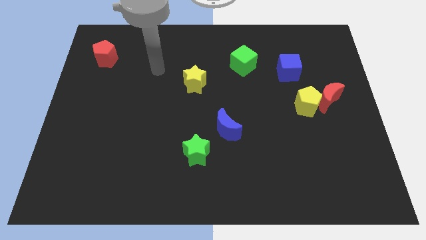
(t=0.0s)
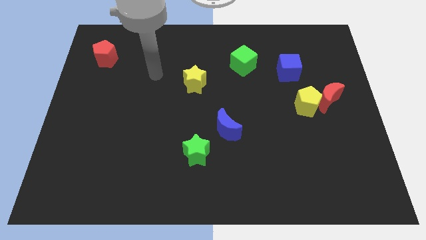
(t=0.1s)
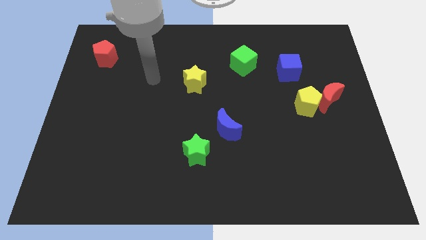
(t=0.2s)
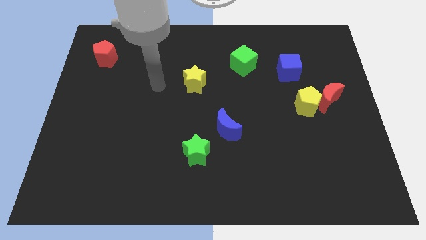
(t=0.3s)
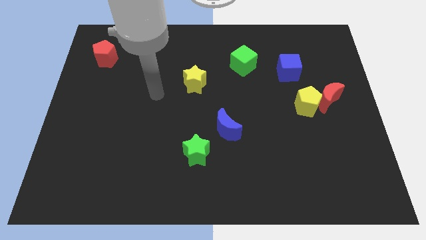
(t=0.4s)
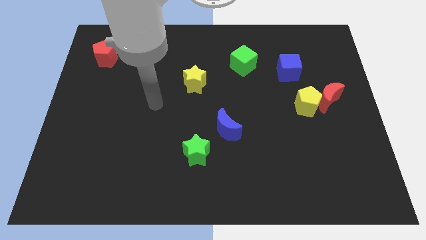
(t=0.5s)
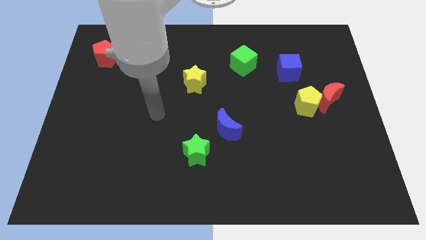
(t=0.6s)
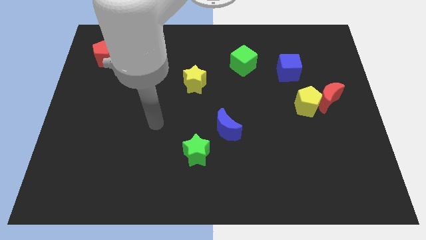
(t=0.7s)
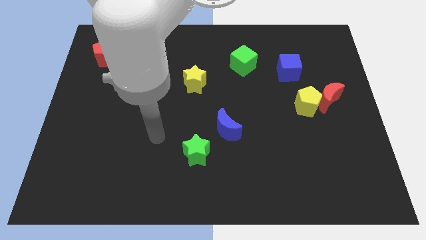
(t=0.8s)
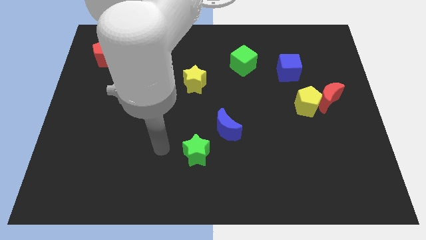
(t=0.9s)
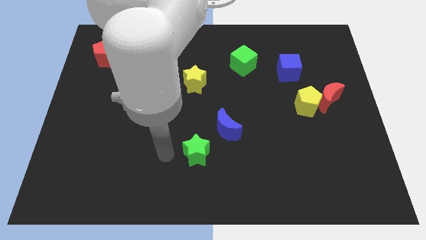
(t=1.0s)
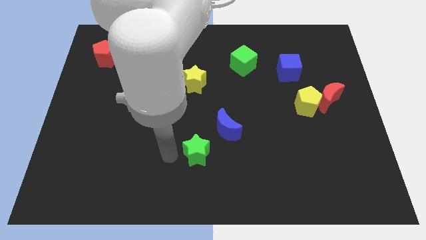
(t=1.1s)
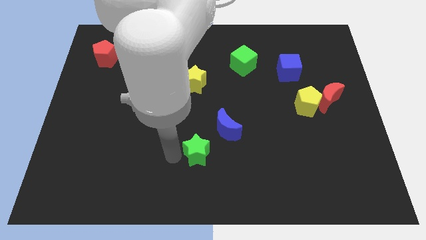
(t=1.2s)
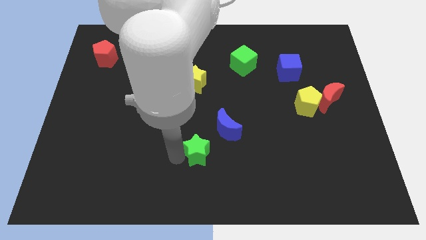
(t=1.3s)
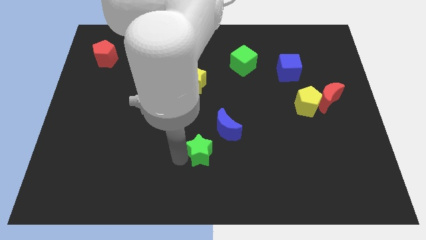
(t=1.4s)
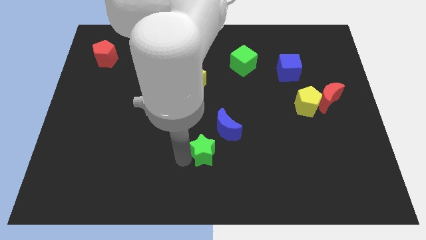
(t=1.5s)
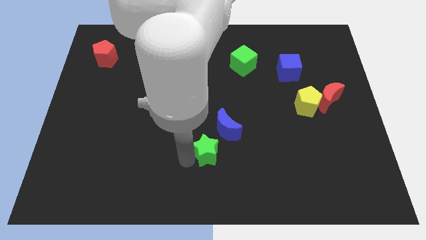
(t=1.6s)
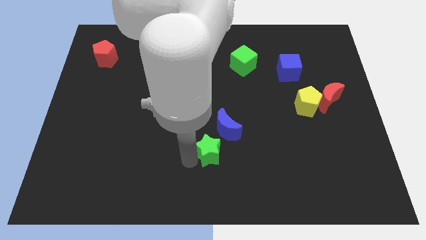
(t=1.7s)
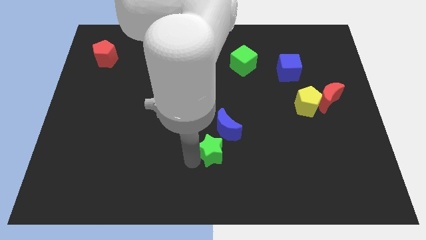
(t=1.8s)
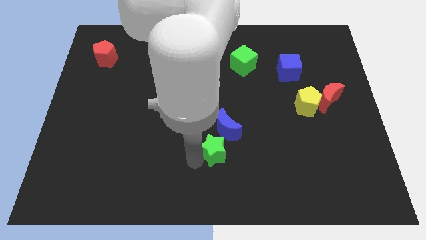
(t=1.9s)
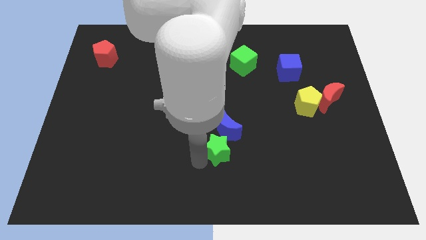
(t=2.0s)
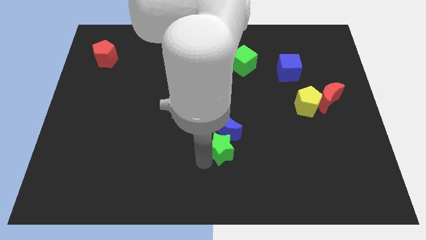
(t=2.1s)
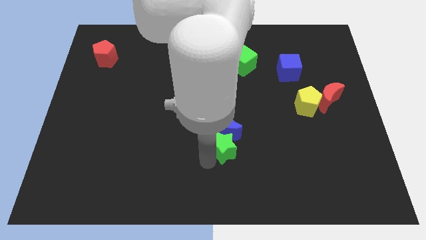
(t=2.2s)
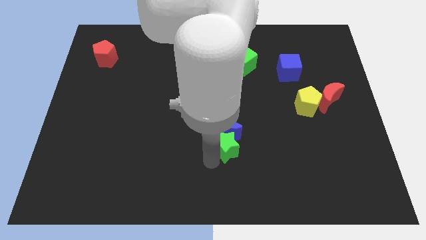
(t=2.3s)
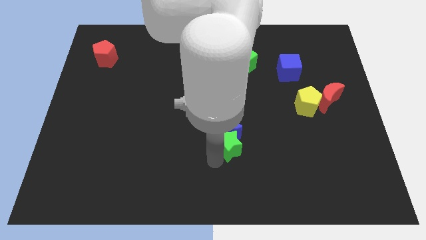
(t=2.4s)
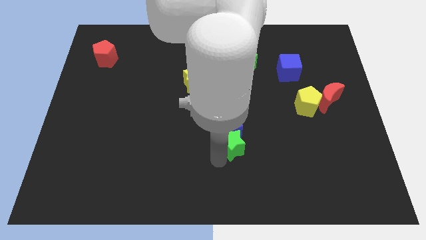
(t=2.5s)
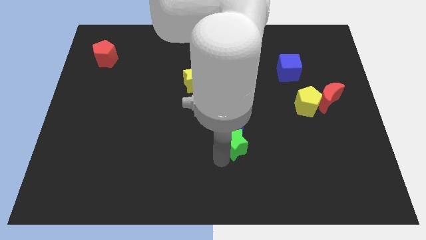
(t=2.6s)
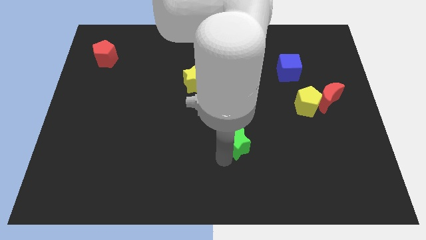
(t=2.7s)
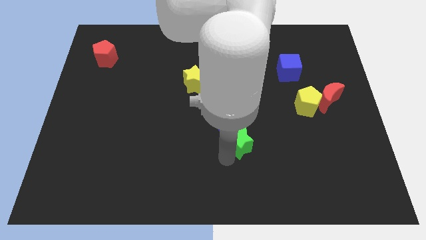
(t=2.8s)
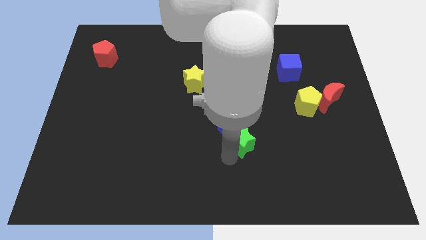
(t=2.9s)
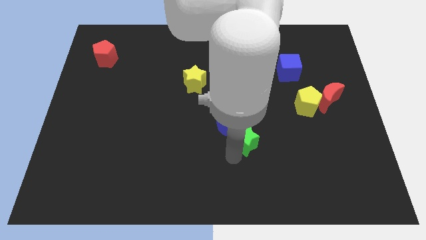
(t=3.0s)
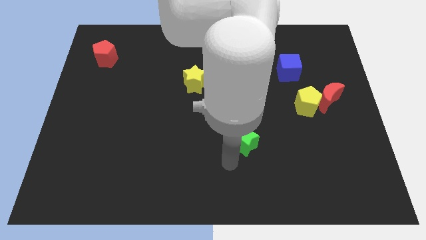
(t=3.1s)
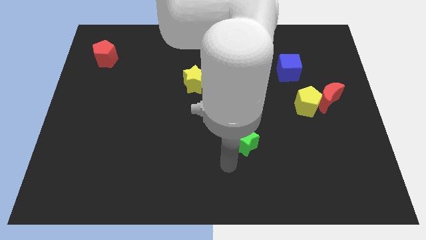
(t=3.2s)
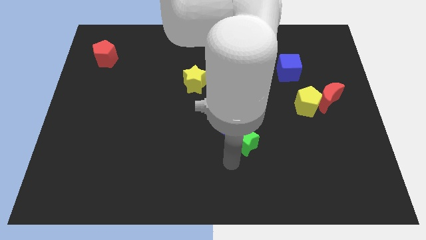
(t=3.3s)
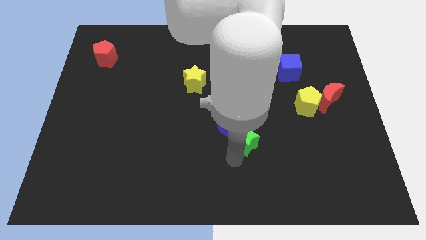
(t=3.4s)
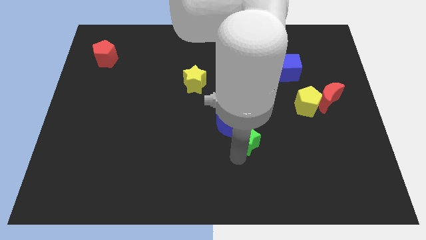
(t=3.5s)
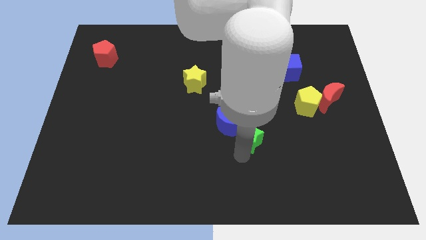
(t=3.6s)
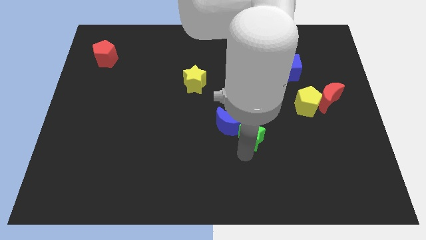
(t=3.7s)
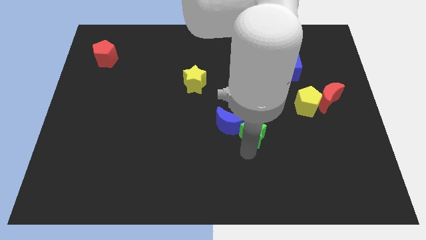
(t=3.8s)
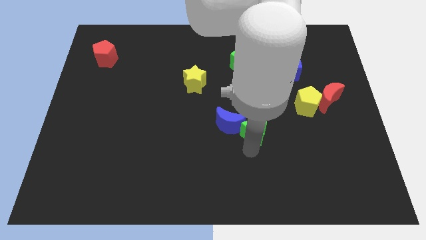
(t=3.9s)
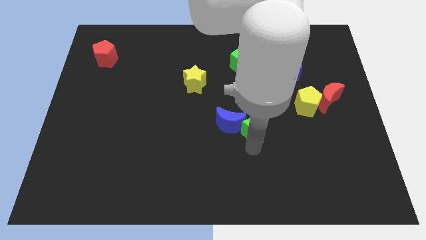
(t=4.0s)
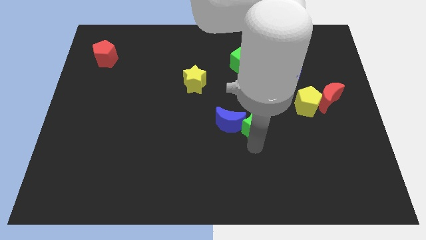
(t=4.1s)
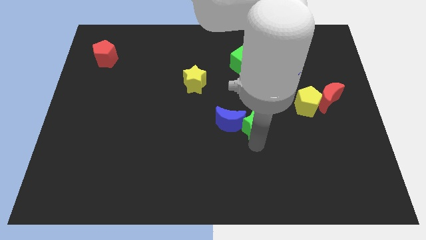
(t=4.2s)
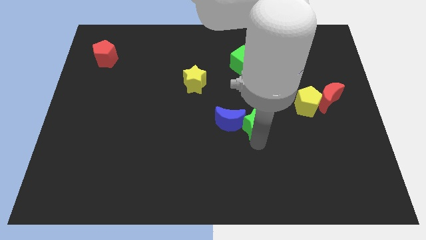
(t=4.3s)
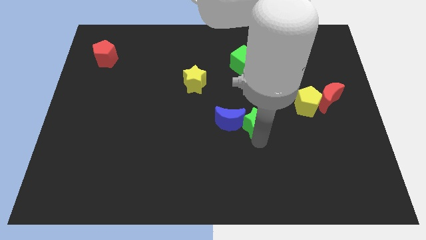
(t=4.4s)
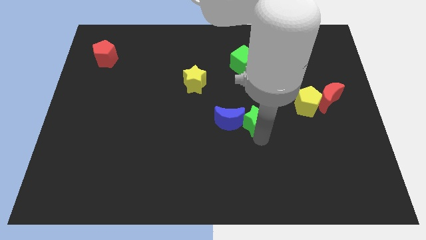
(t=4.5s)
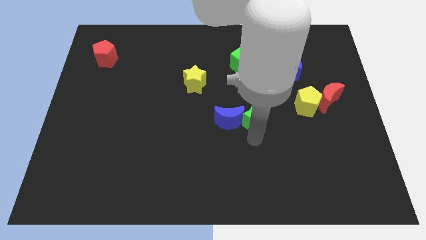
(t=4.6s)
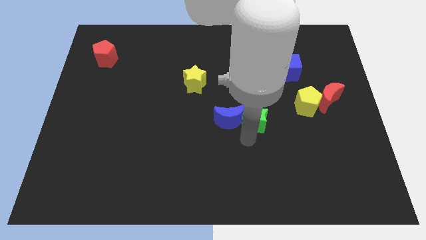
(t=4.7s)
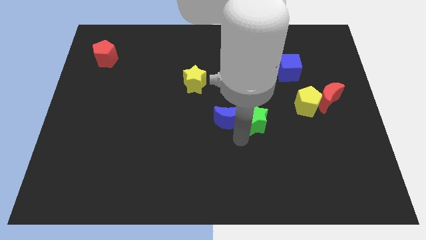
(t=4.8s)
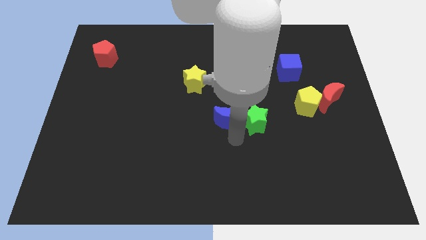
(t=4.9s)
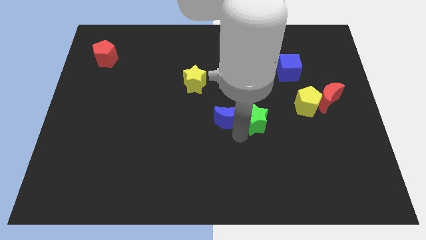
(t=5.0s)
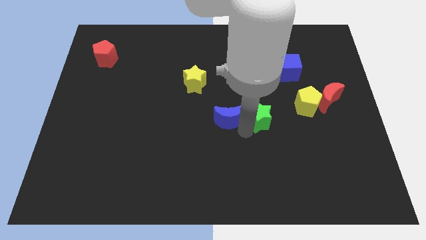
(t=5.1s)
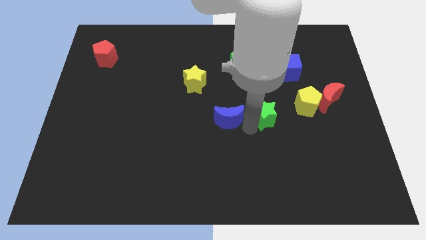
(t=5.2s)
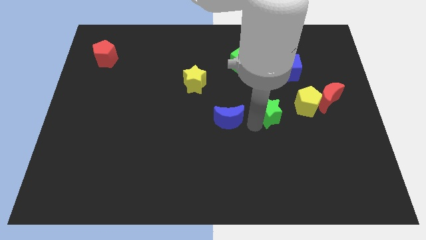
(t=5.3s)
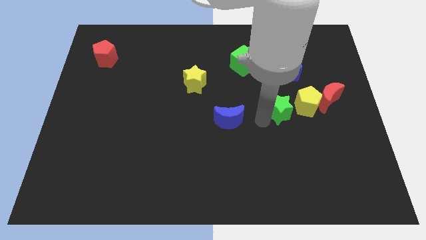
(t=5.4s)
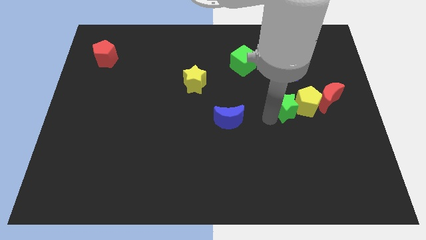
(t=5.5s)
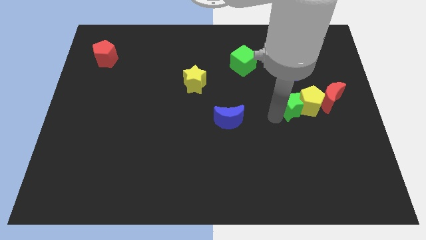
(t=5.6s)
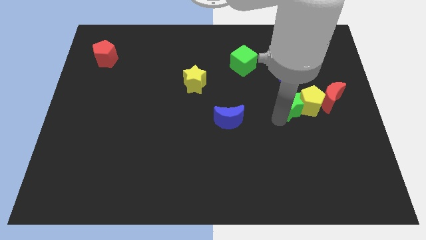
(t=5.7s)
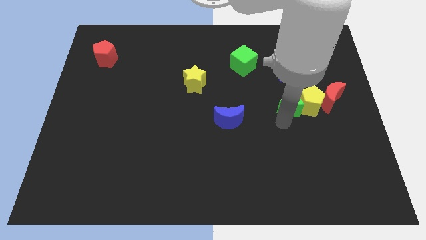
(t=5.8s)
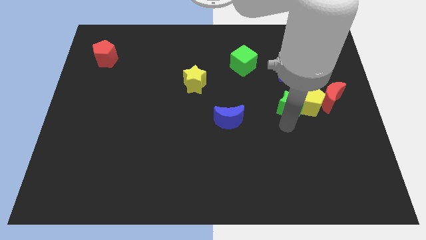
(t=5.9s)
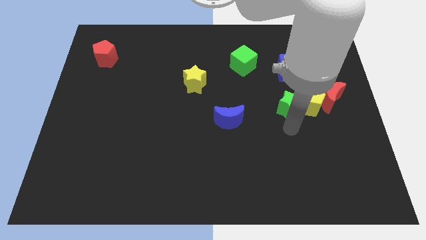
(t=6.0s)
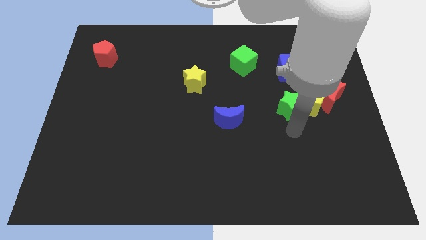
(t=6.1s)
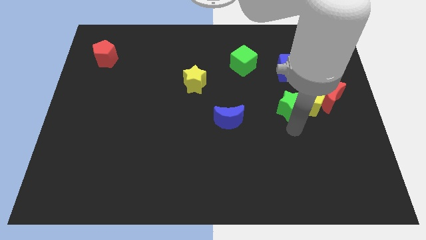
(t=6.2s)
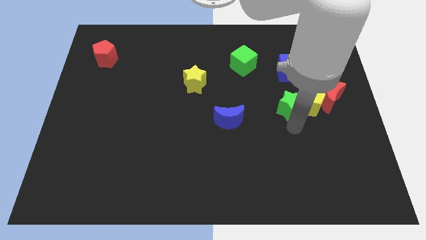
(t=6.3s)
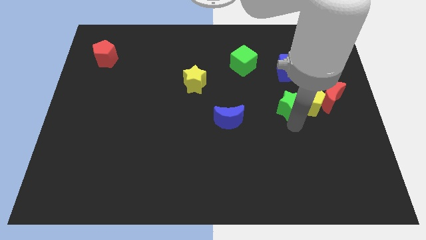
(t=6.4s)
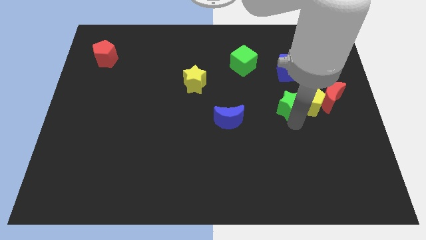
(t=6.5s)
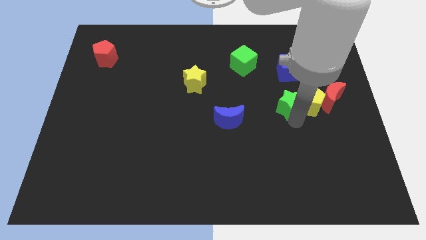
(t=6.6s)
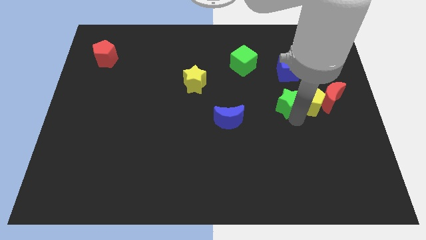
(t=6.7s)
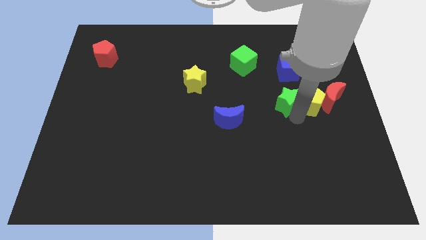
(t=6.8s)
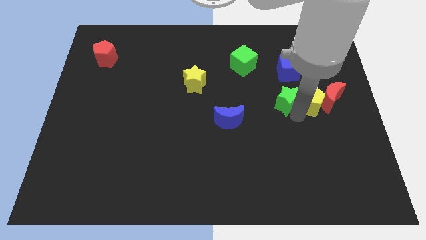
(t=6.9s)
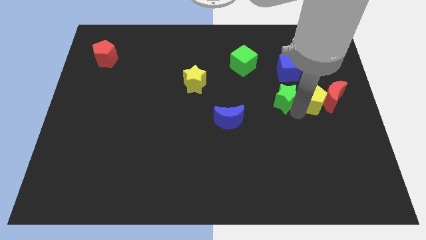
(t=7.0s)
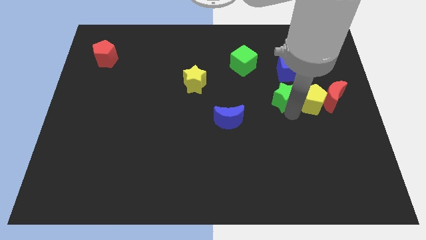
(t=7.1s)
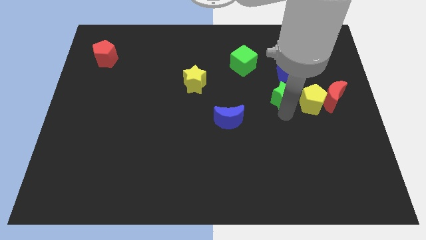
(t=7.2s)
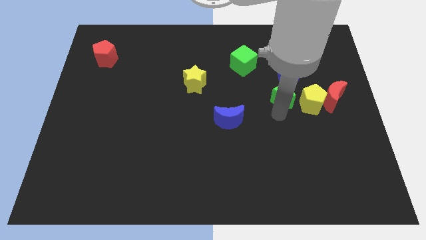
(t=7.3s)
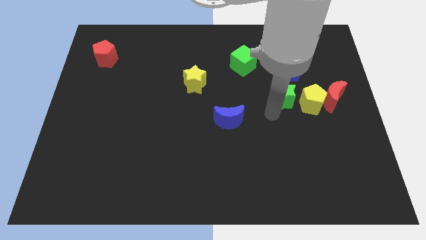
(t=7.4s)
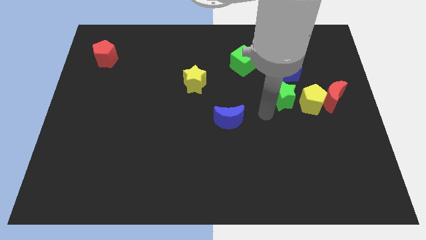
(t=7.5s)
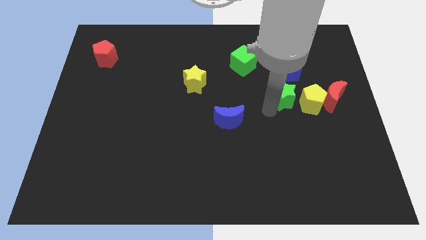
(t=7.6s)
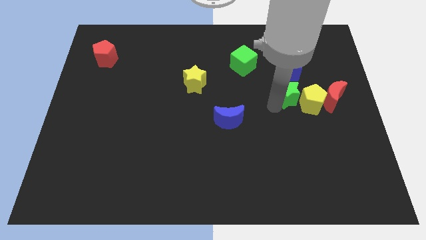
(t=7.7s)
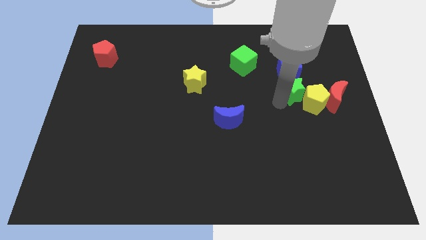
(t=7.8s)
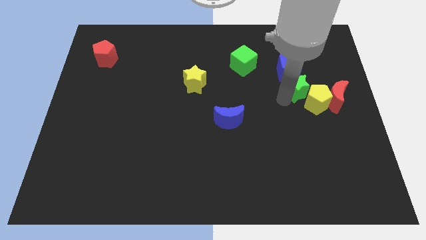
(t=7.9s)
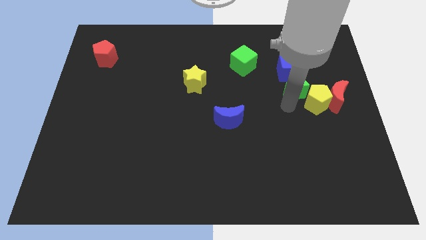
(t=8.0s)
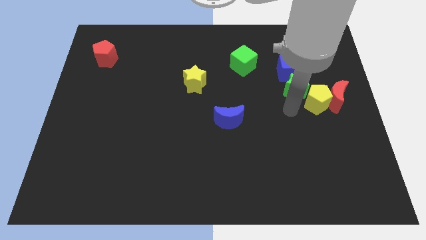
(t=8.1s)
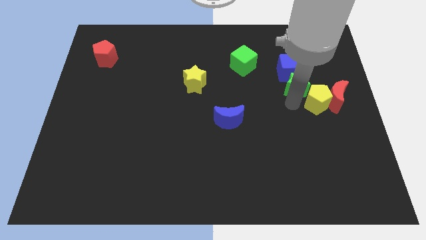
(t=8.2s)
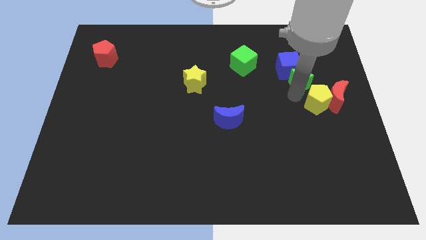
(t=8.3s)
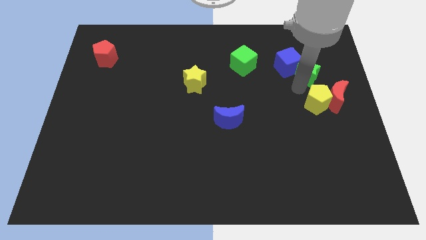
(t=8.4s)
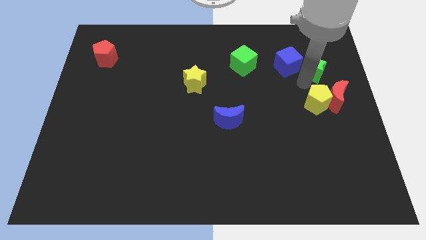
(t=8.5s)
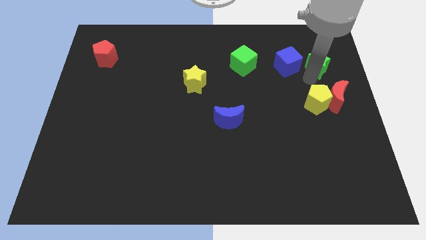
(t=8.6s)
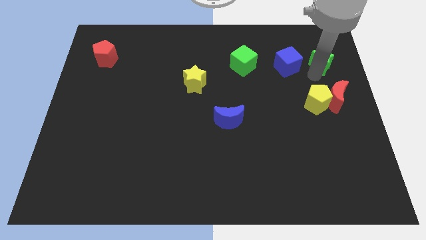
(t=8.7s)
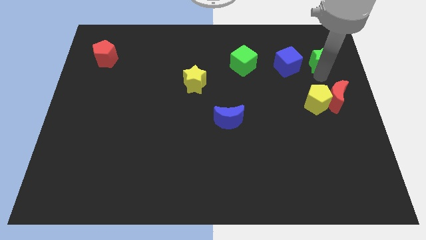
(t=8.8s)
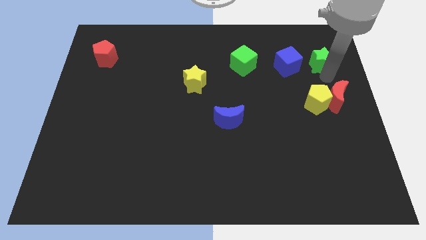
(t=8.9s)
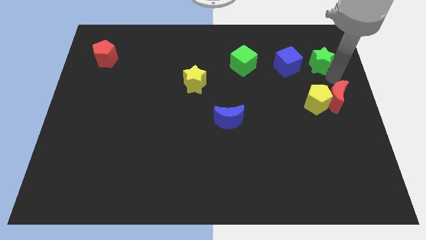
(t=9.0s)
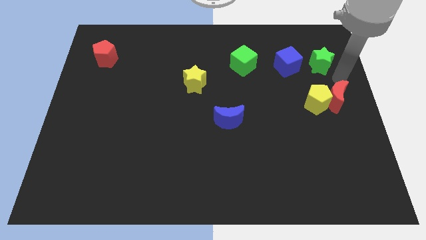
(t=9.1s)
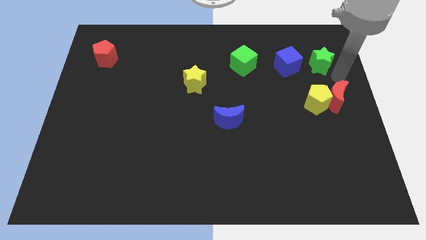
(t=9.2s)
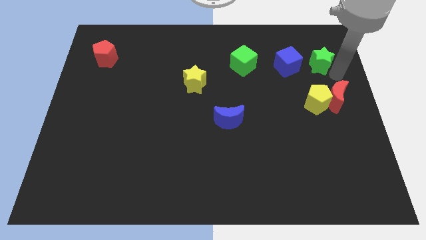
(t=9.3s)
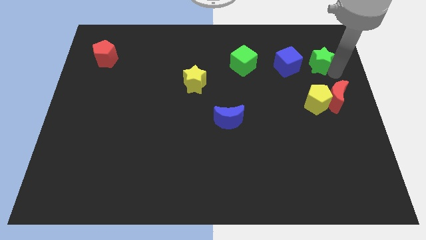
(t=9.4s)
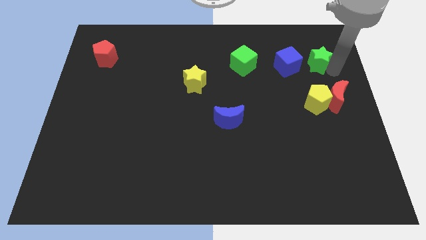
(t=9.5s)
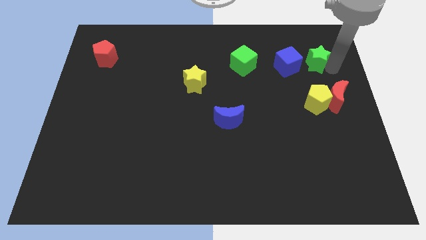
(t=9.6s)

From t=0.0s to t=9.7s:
put the green star to the top right side of the blue cube
